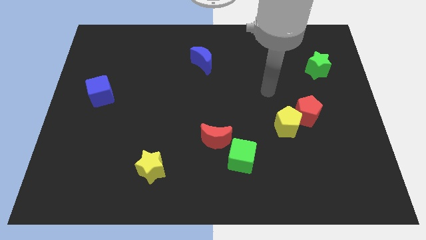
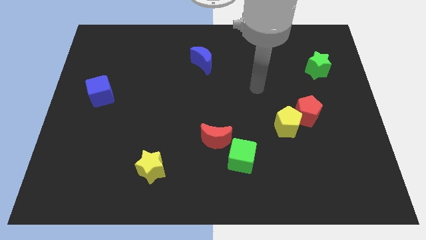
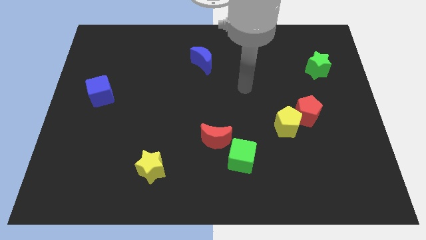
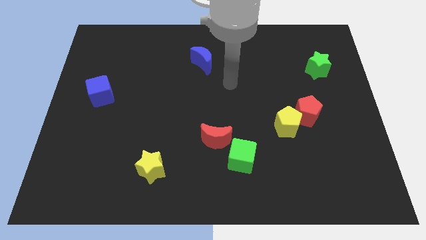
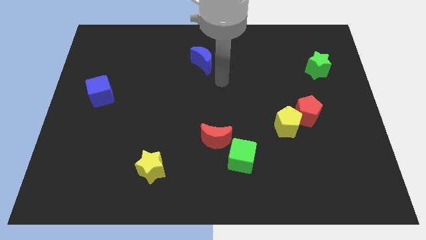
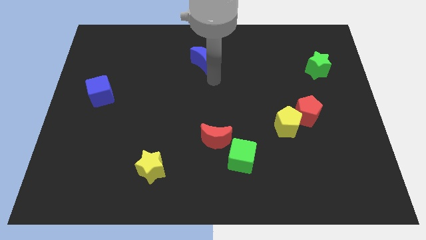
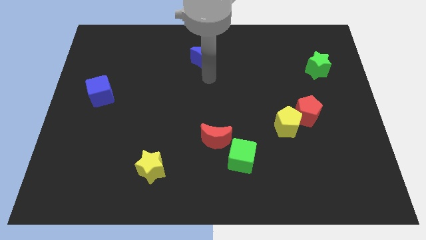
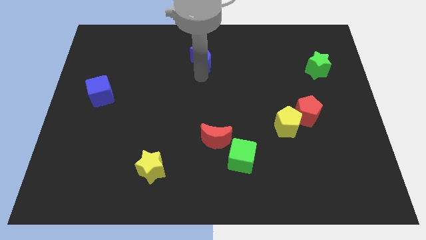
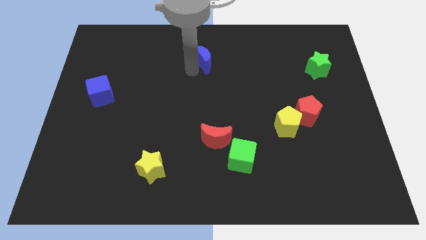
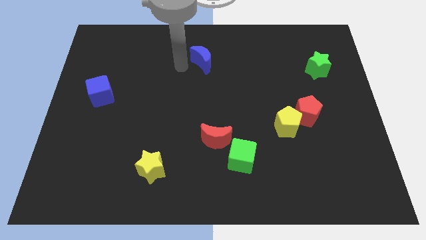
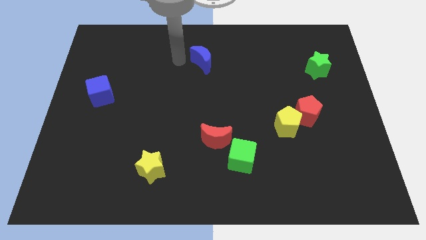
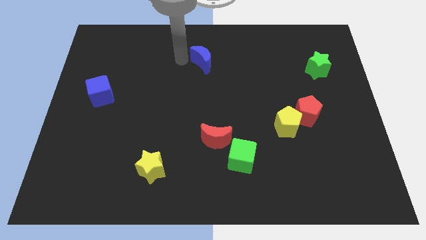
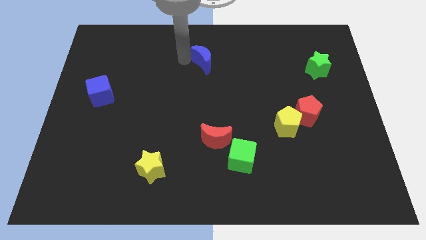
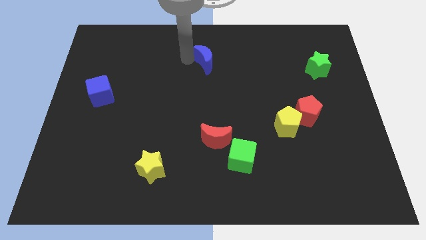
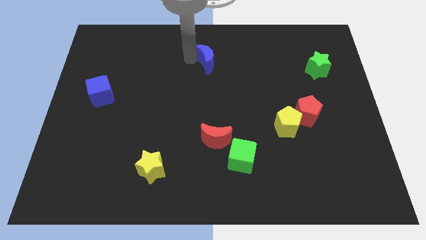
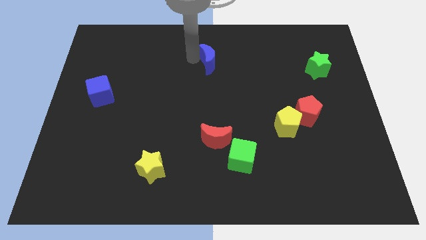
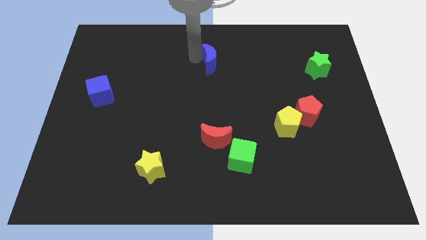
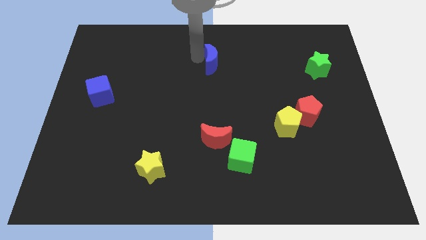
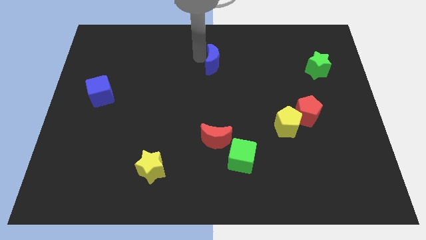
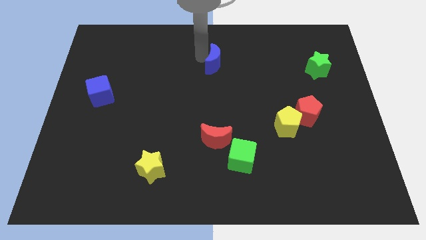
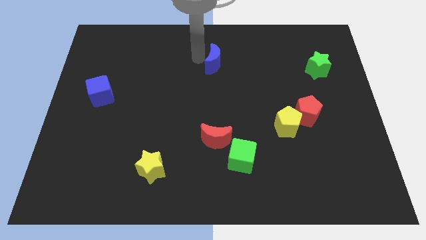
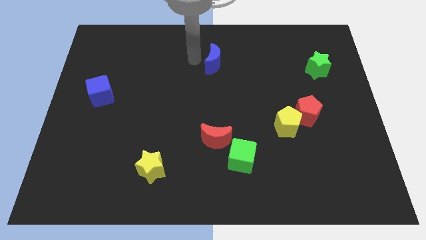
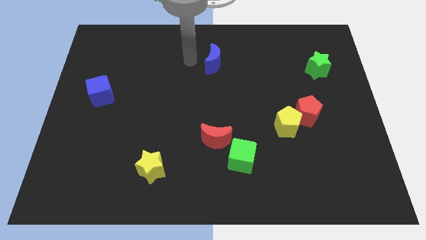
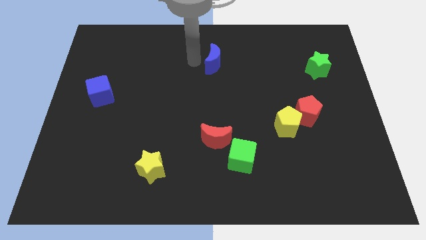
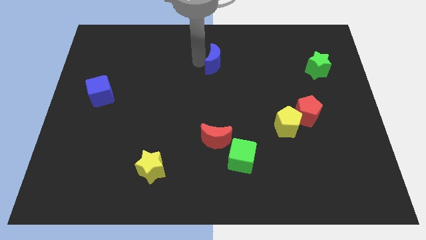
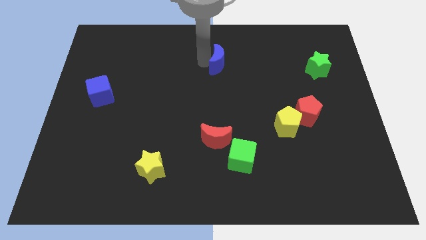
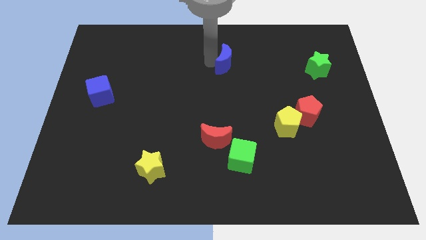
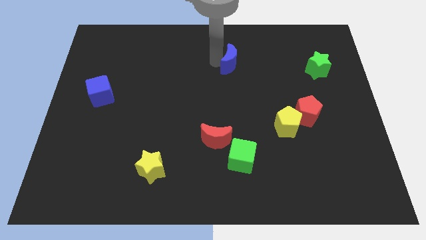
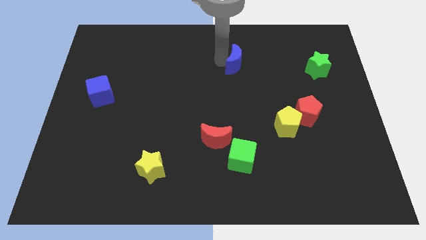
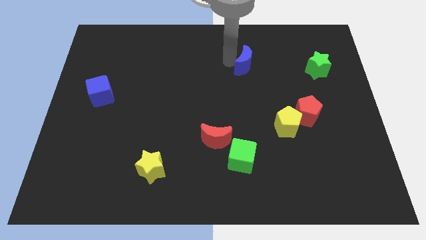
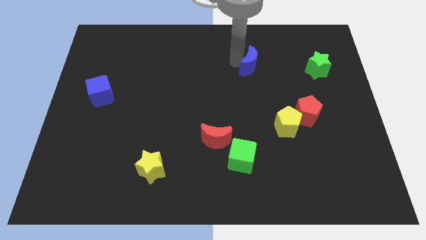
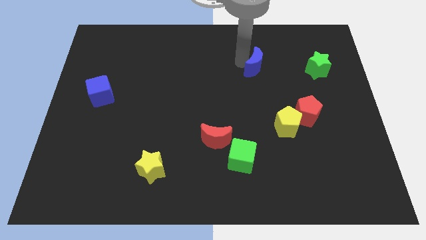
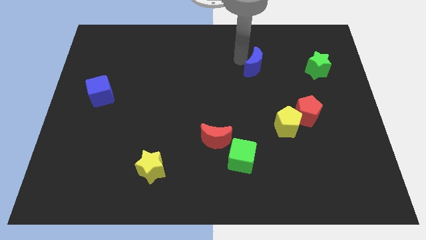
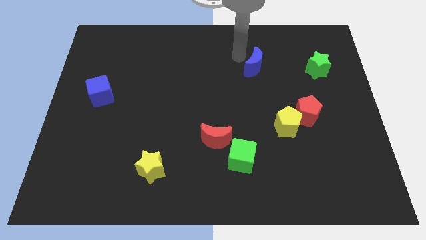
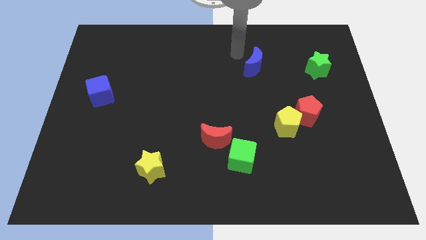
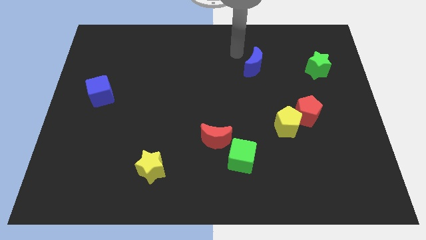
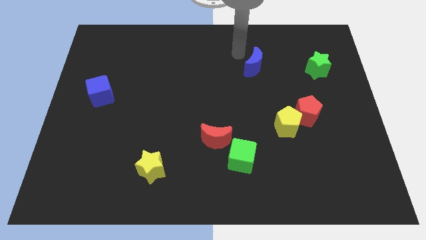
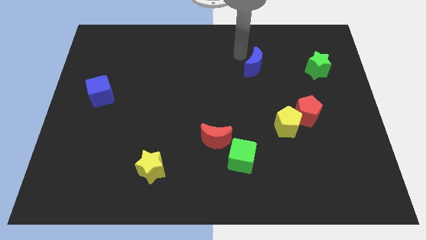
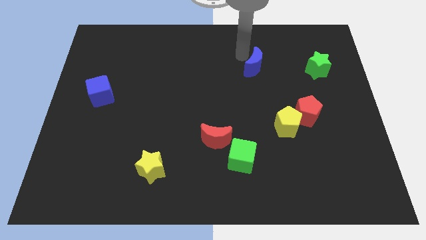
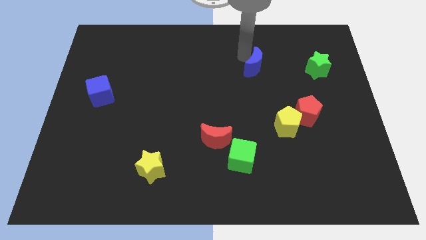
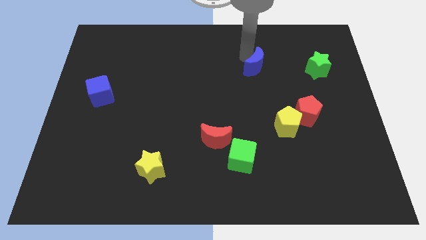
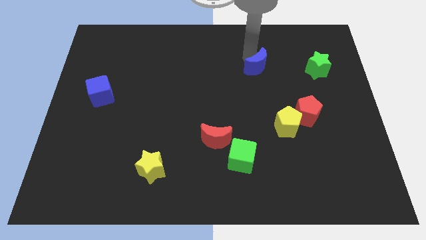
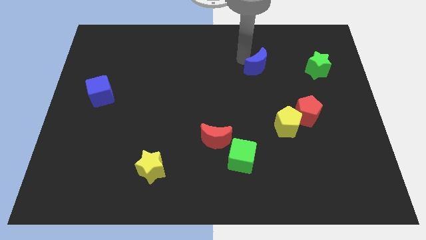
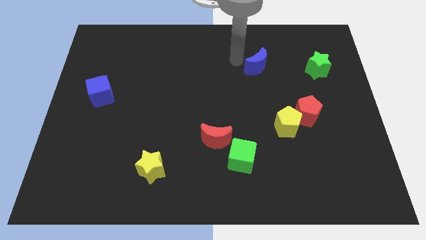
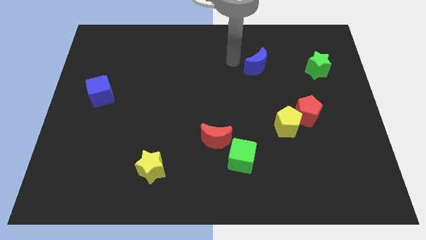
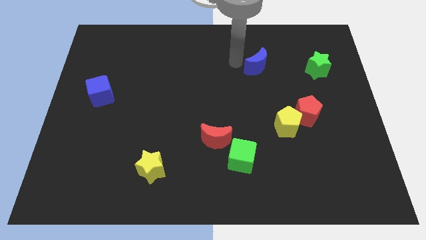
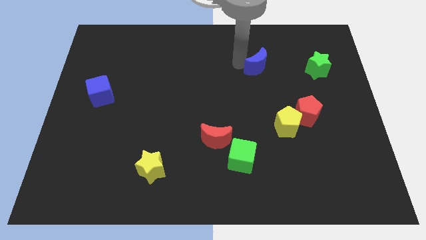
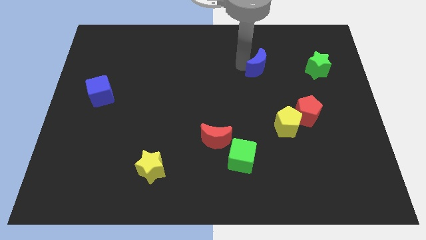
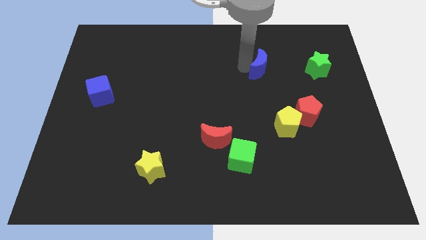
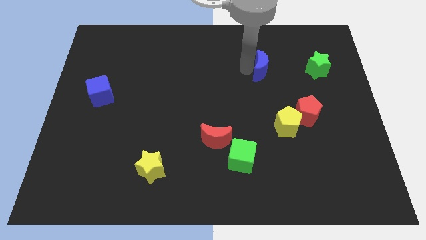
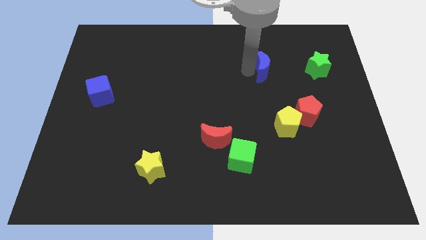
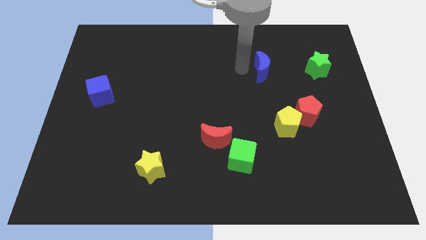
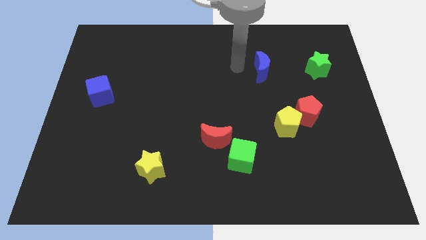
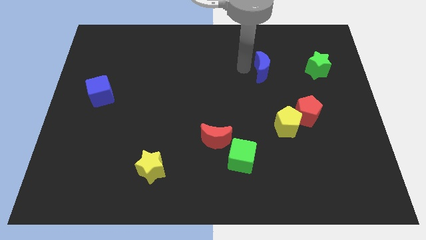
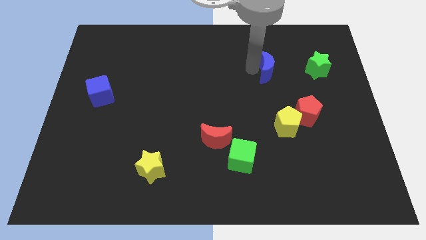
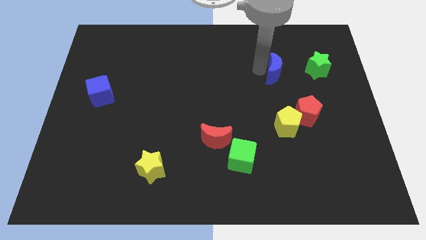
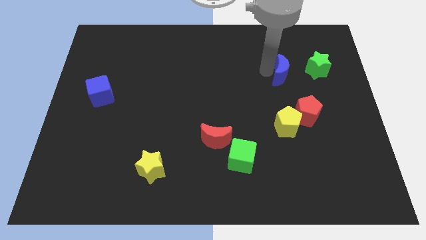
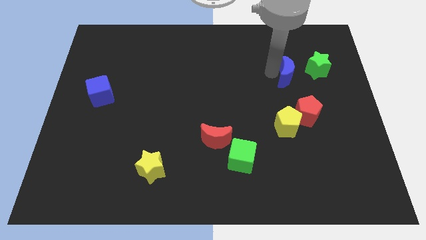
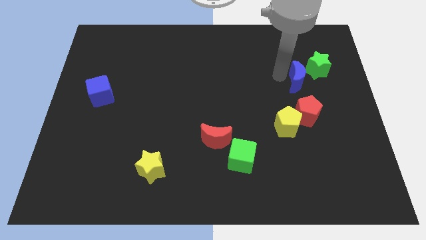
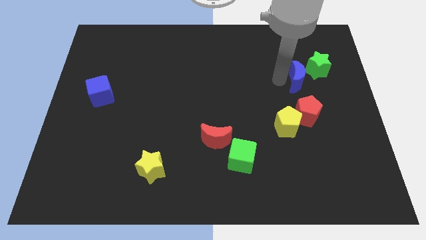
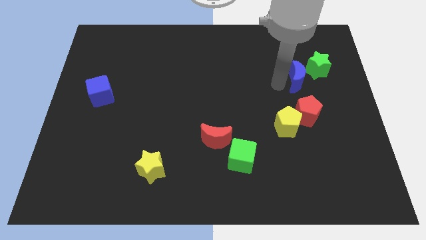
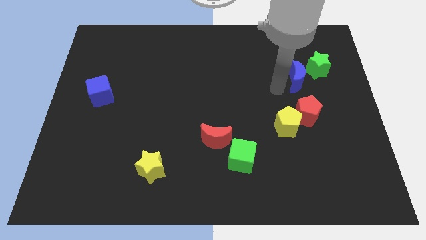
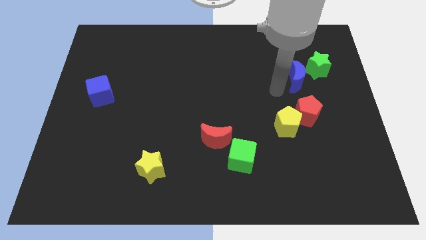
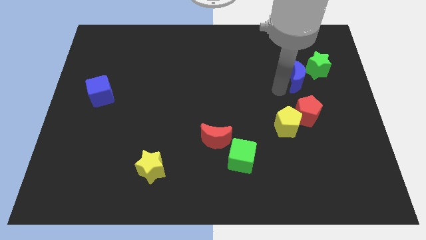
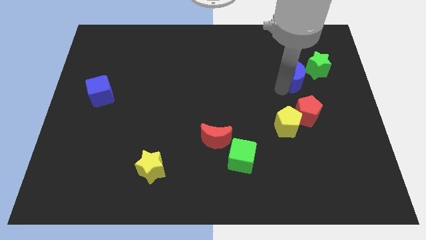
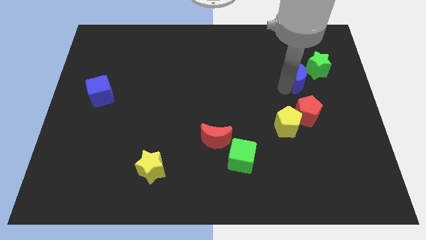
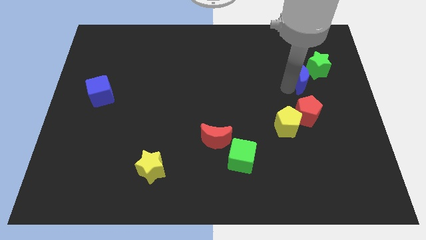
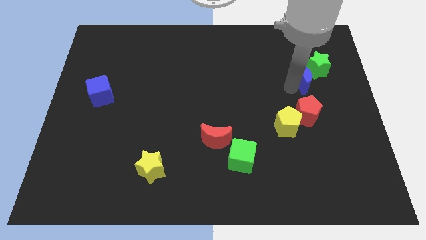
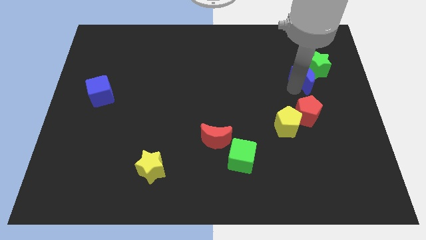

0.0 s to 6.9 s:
move the blue moon to the green star

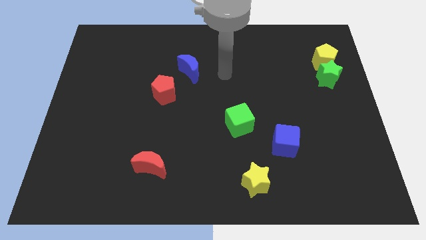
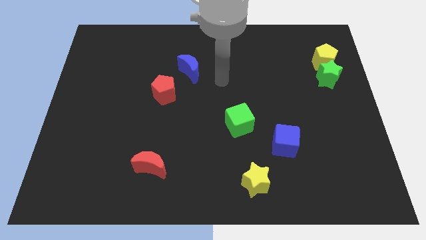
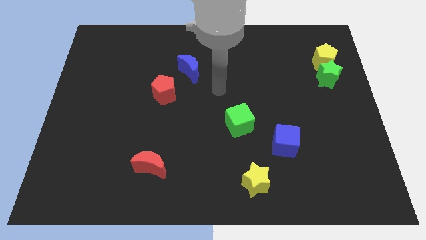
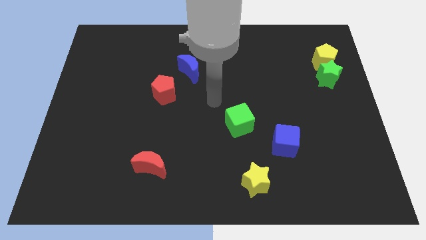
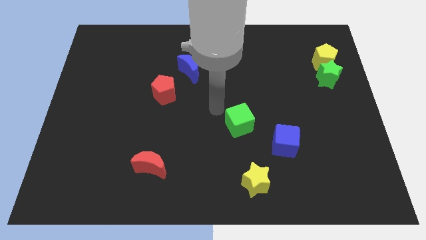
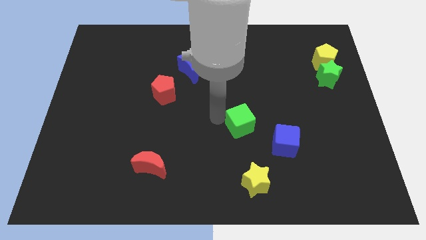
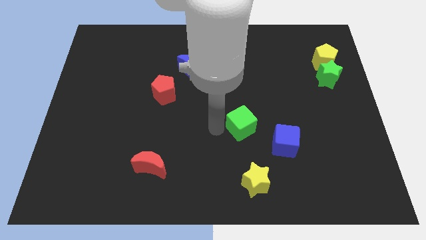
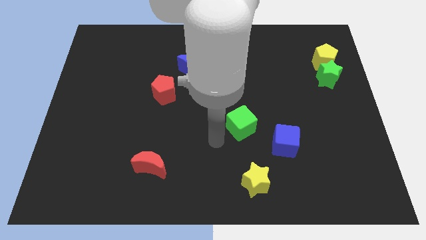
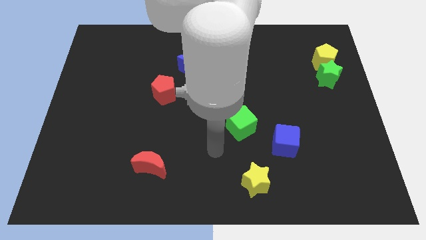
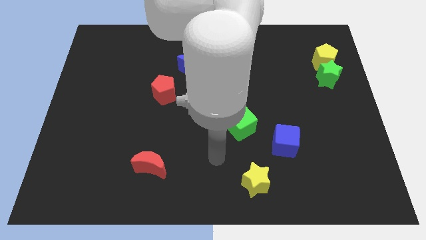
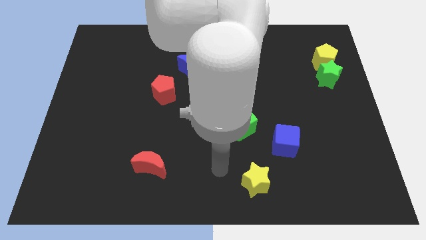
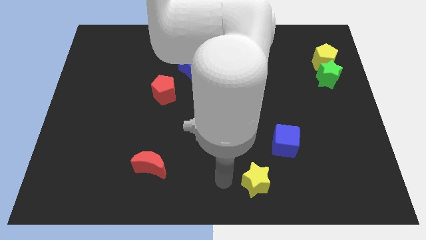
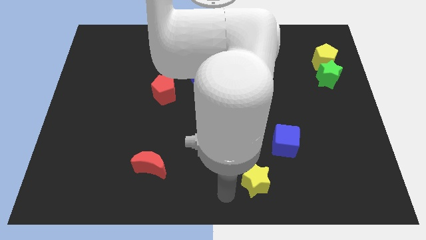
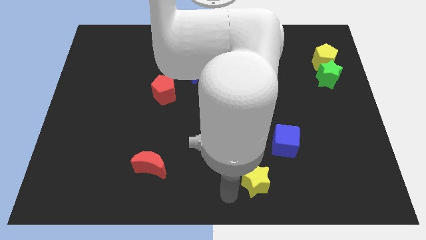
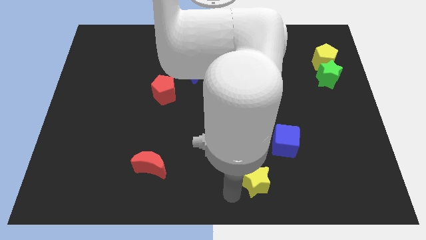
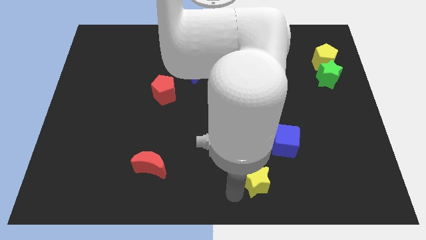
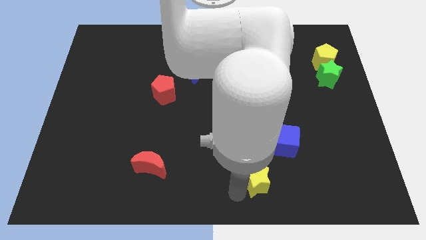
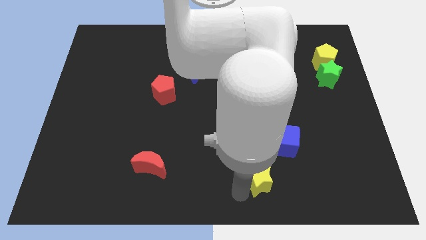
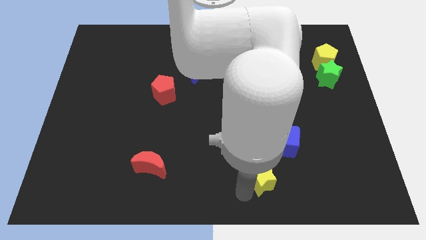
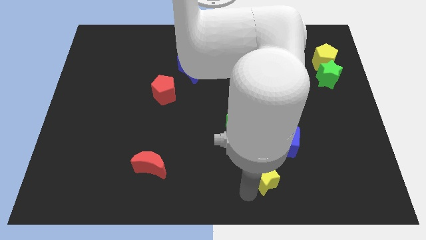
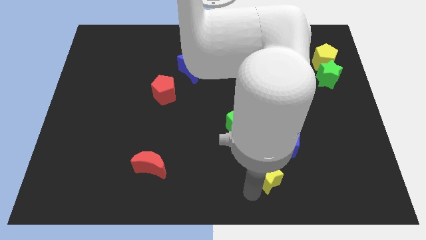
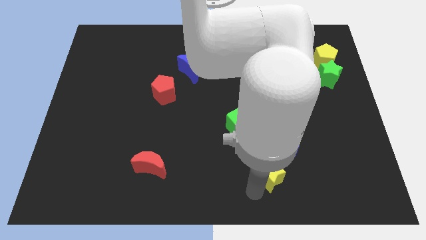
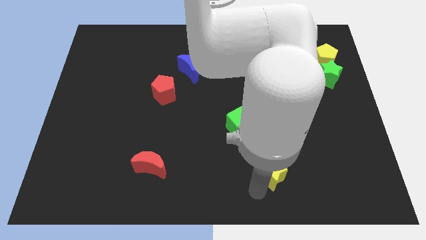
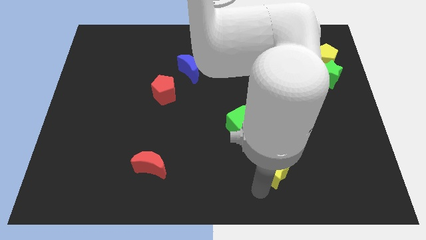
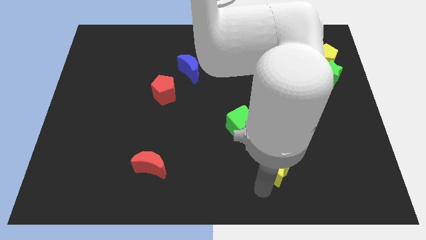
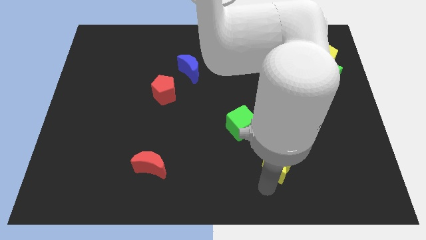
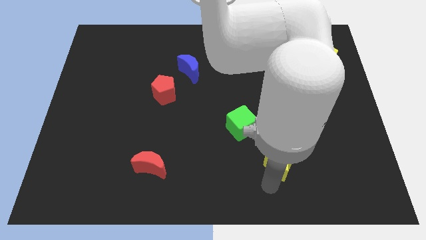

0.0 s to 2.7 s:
push the yellow star to the blue cube
